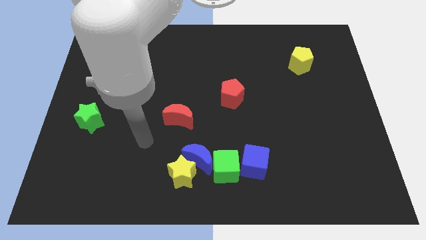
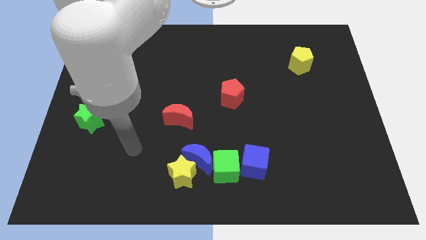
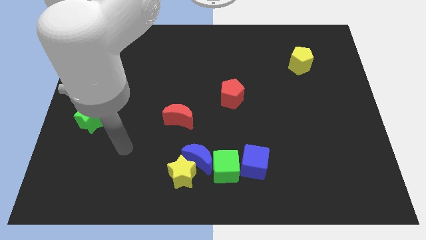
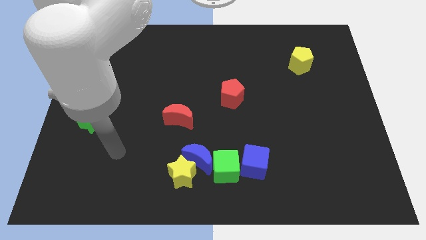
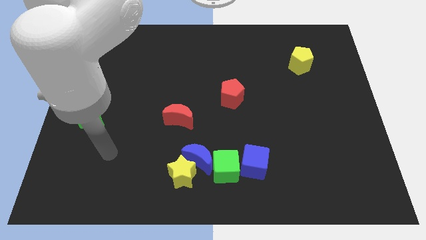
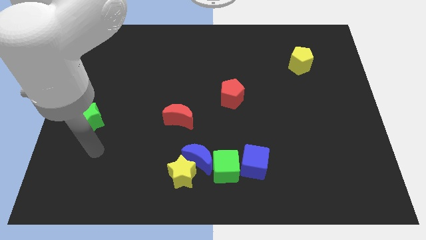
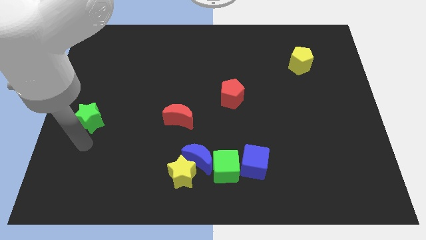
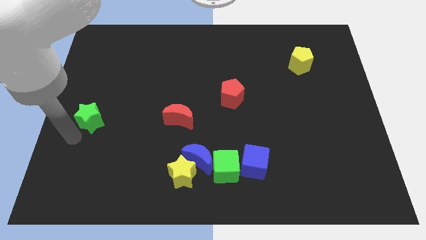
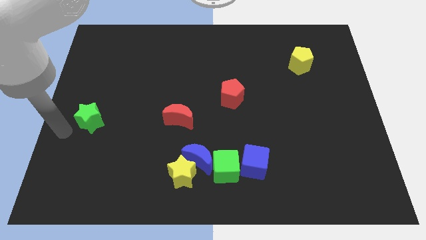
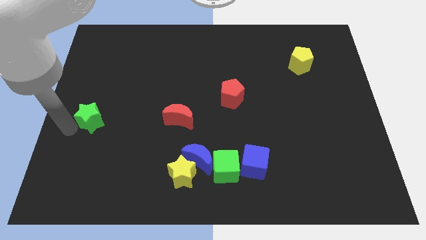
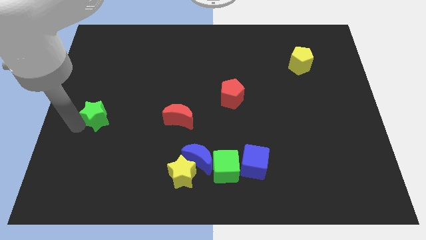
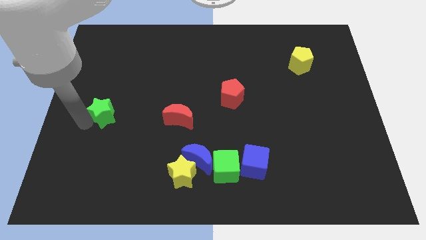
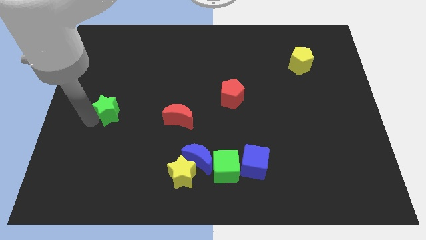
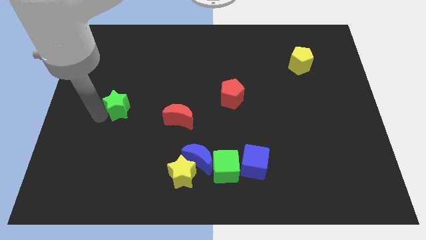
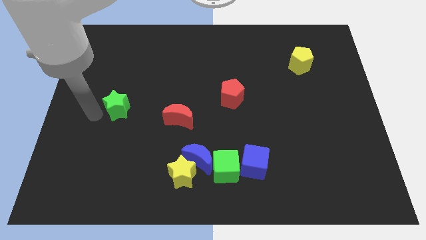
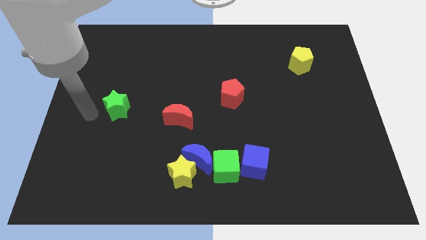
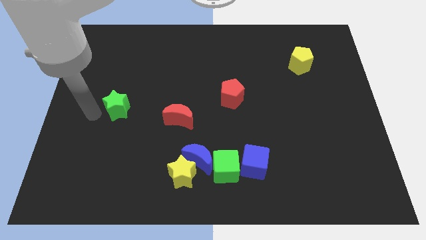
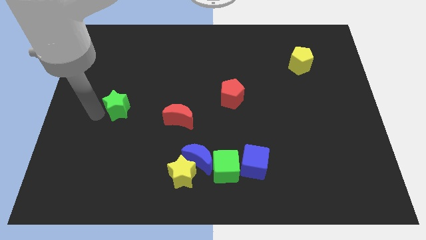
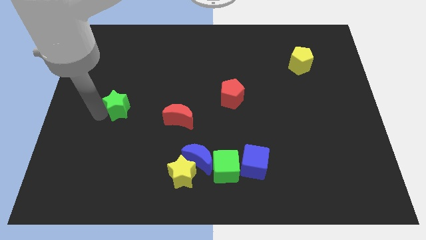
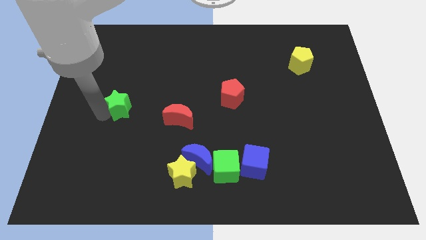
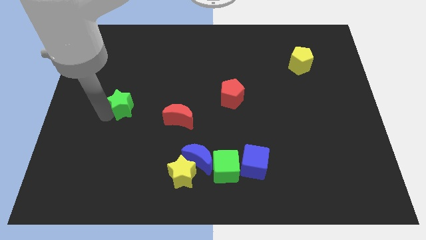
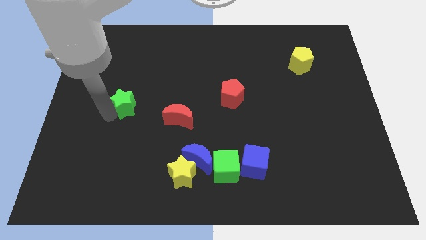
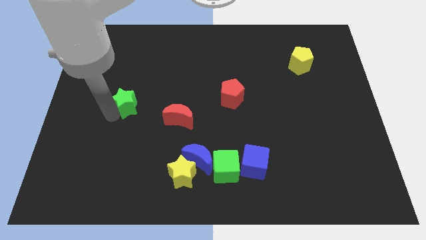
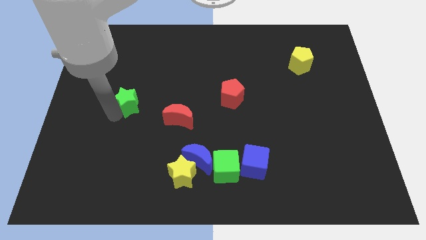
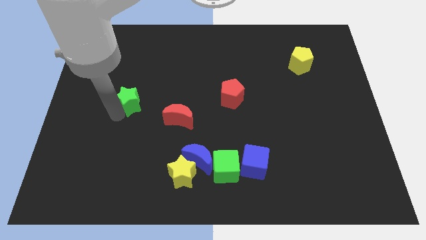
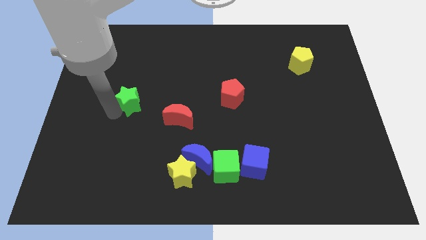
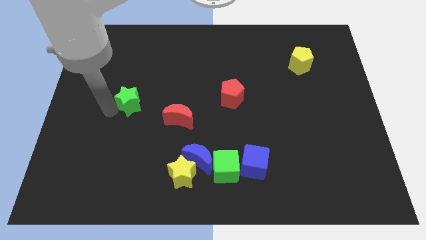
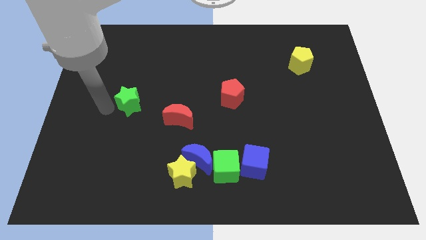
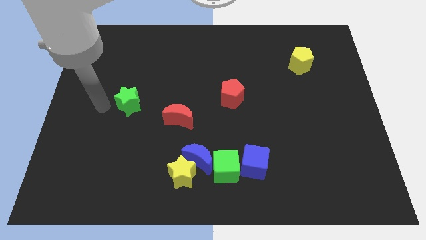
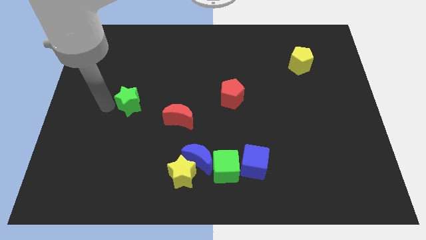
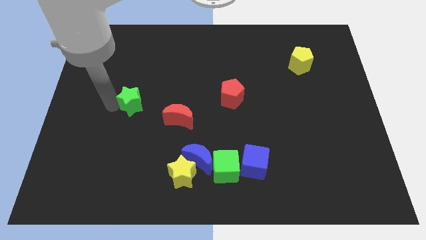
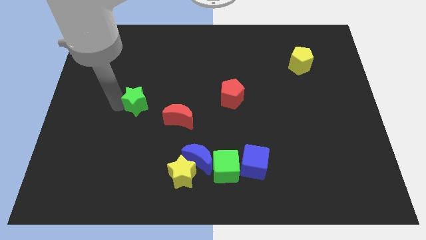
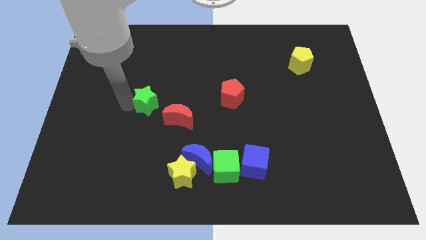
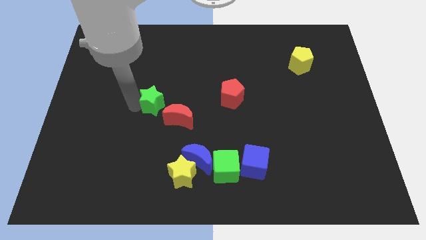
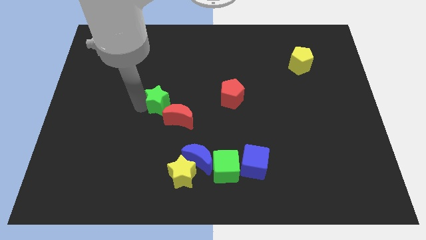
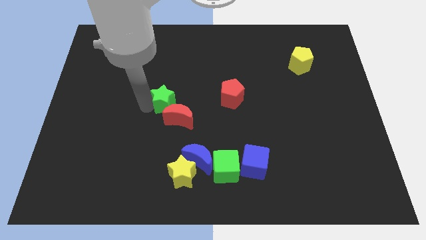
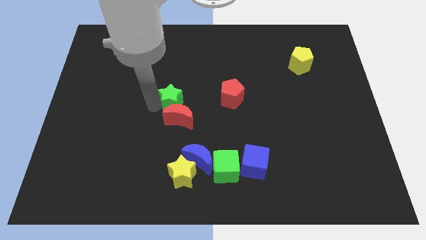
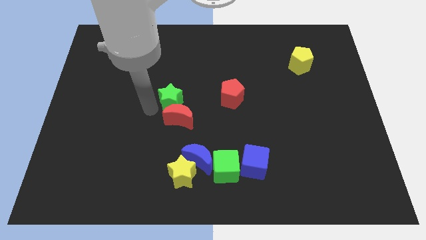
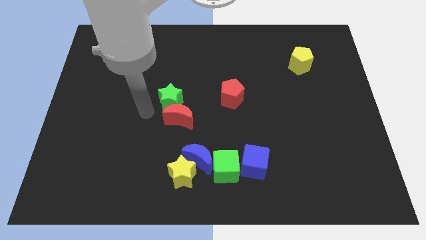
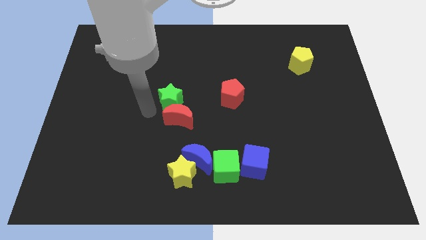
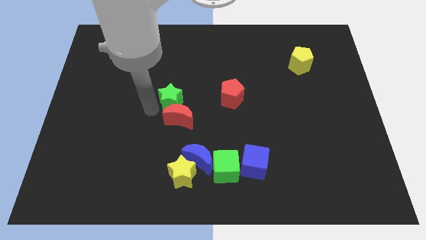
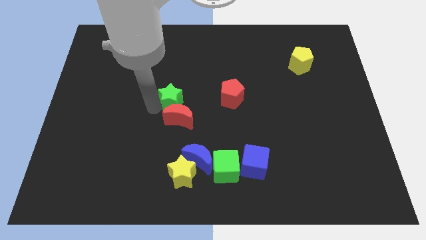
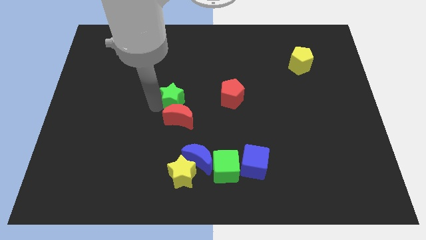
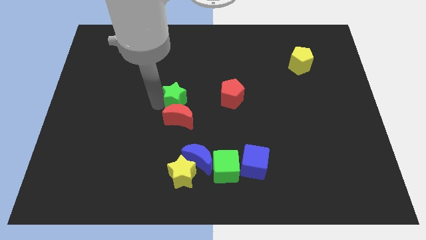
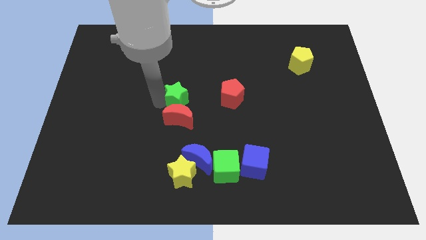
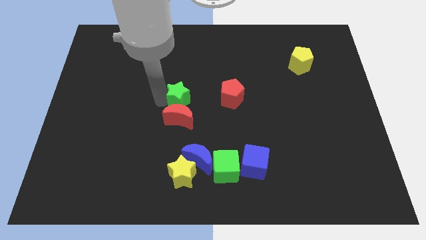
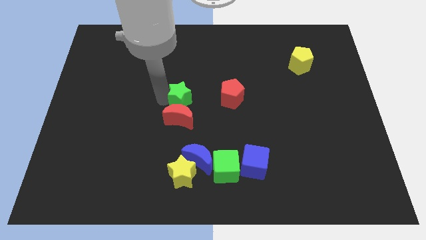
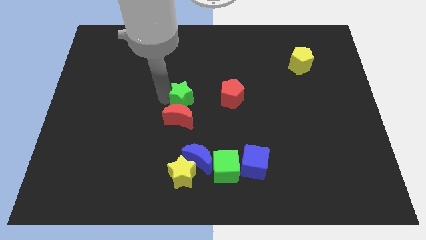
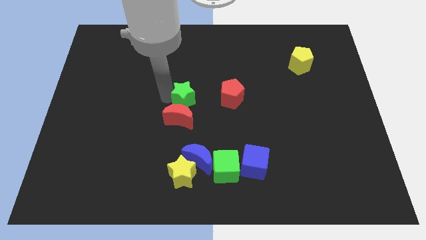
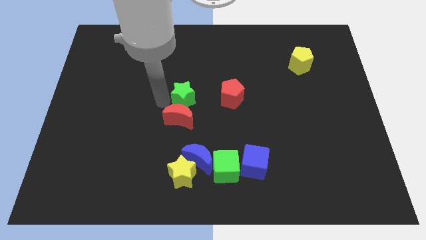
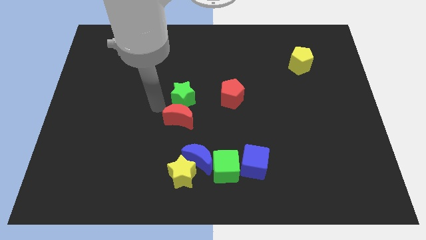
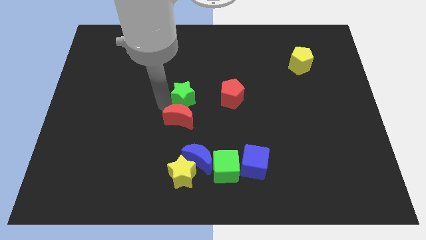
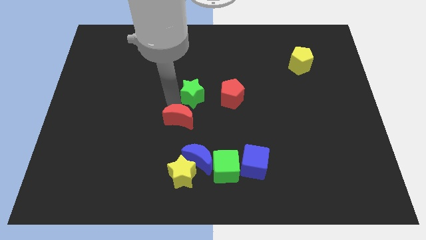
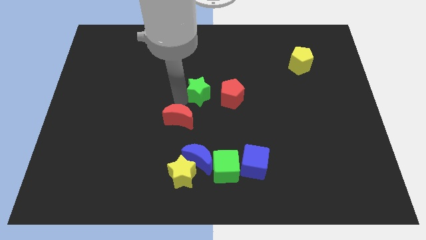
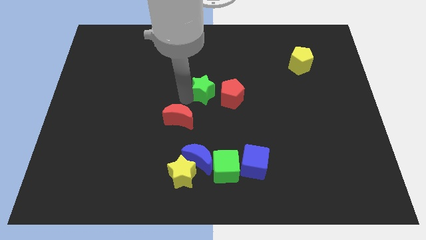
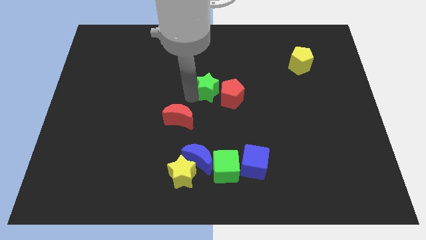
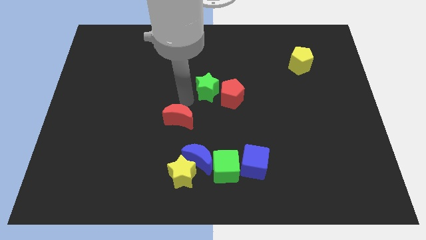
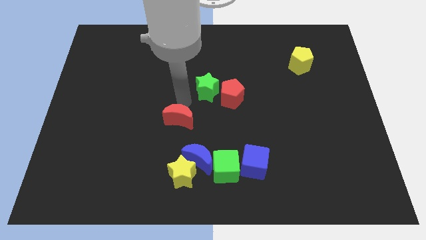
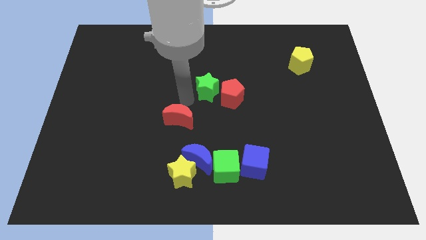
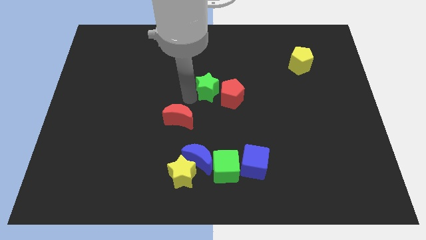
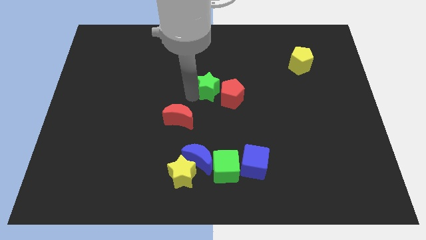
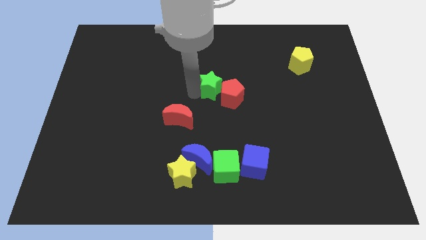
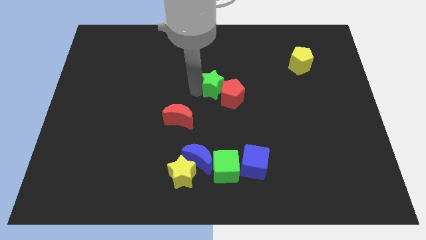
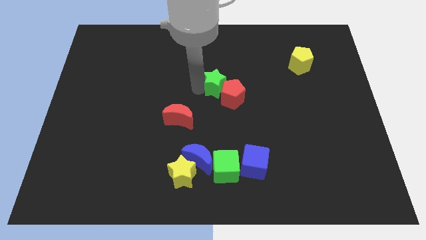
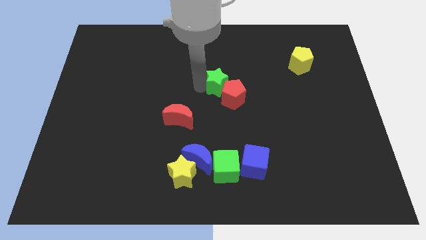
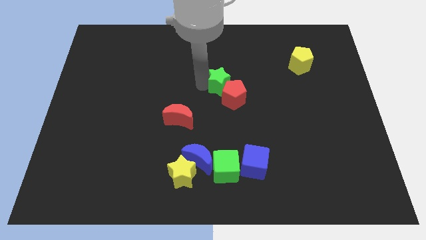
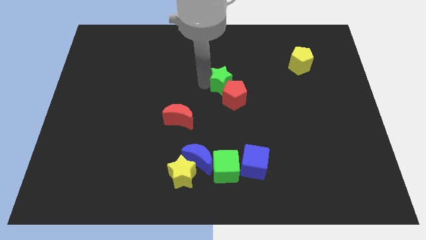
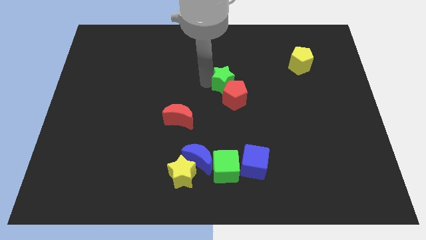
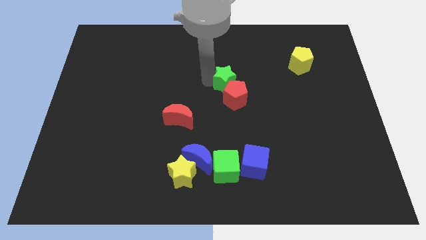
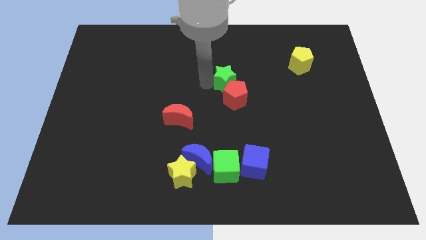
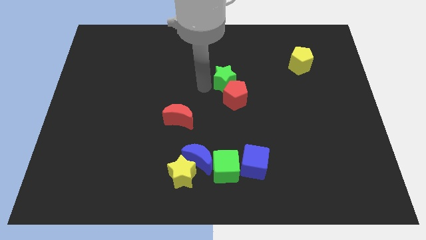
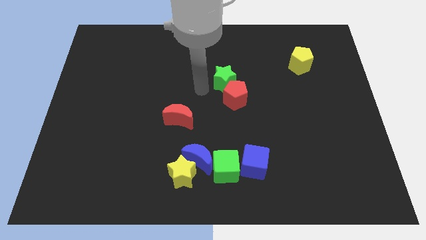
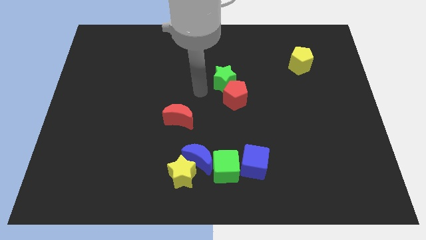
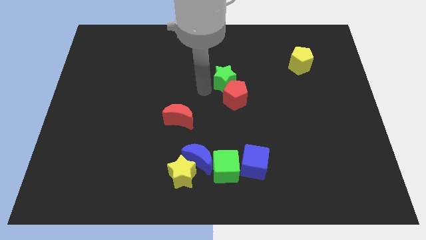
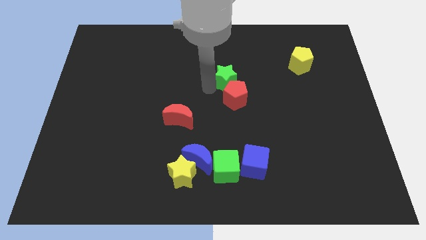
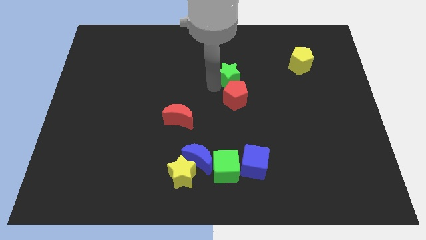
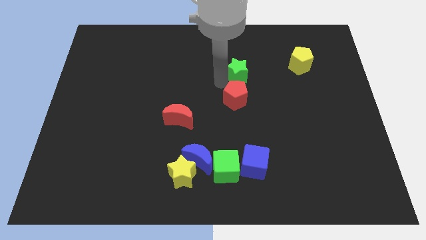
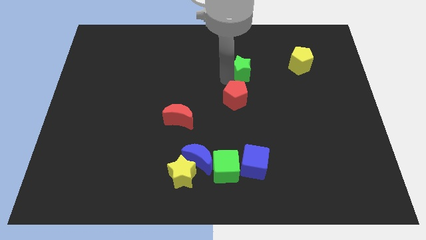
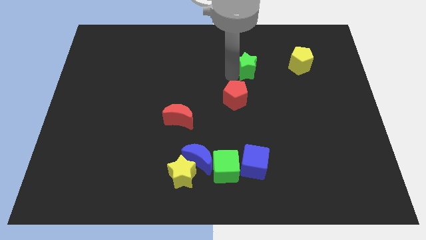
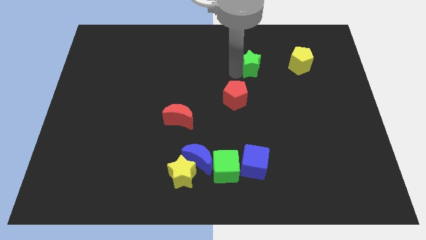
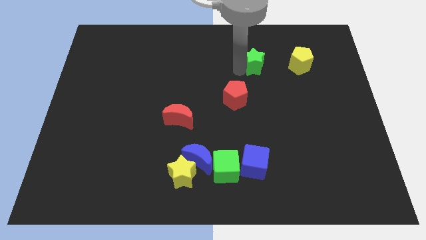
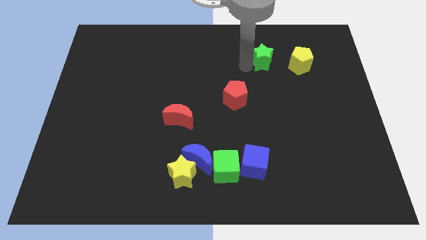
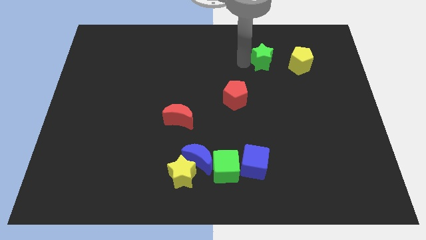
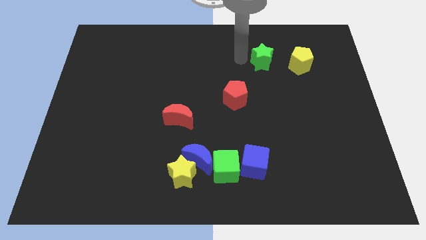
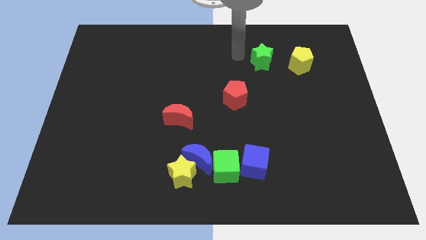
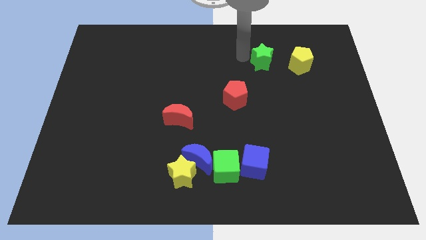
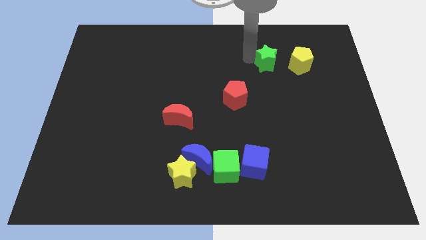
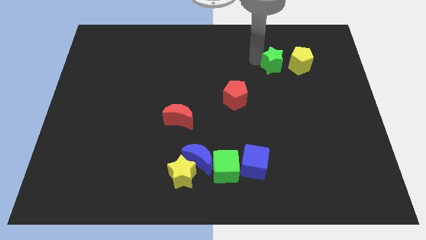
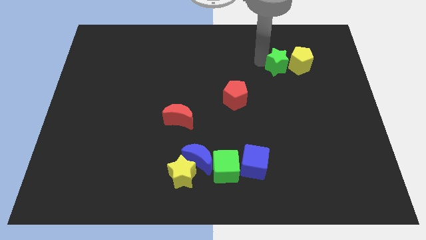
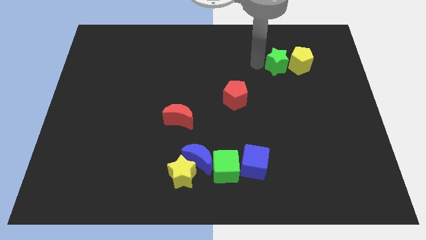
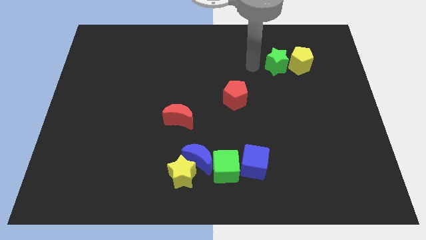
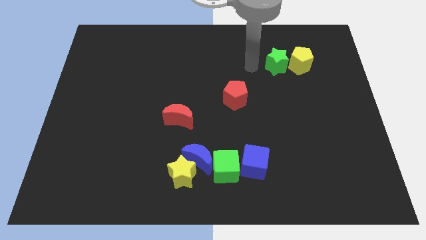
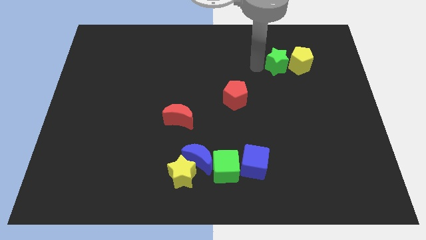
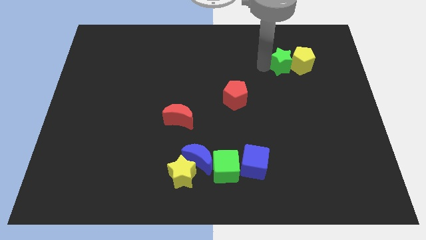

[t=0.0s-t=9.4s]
move the green star to the yellow pentagon
